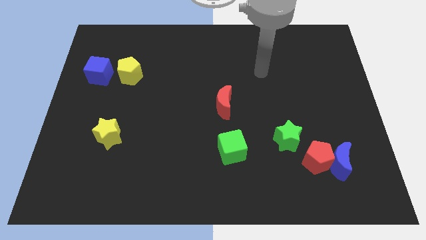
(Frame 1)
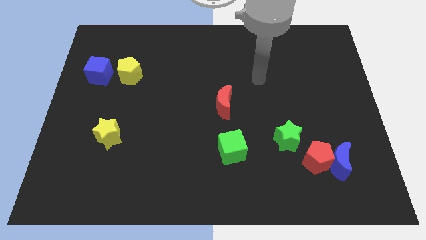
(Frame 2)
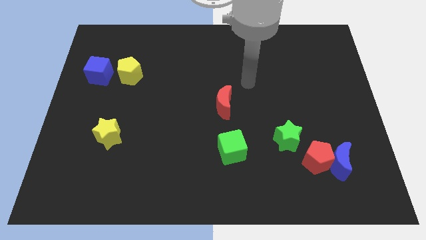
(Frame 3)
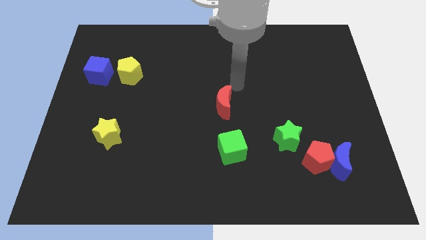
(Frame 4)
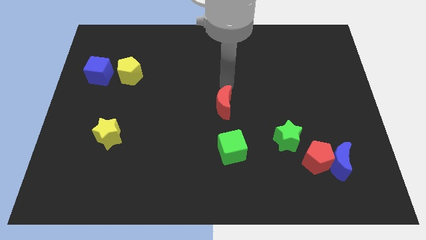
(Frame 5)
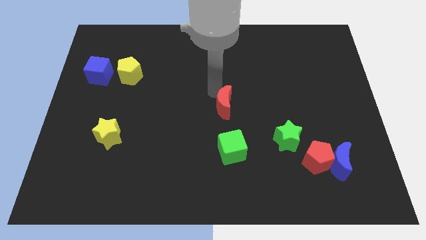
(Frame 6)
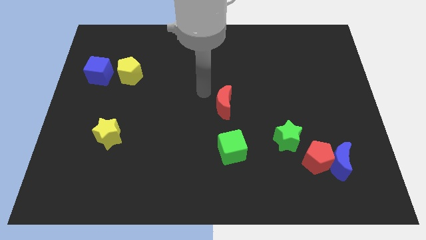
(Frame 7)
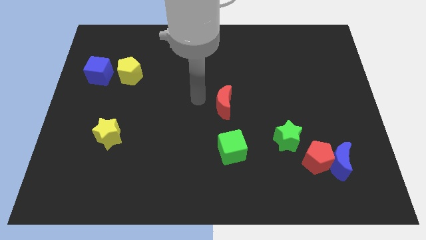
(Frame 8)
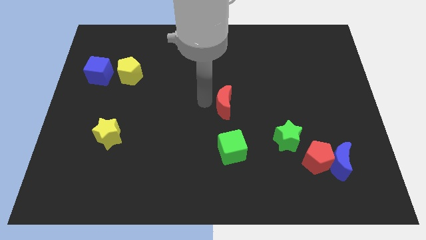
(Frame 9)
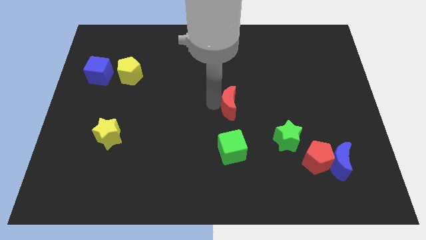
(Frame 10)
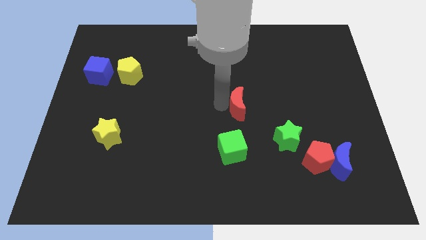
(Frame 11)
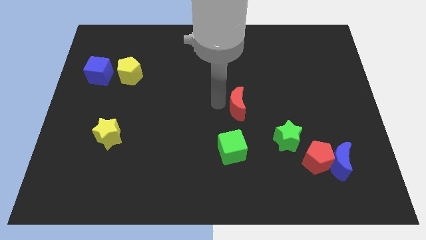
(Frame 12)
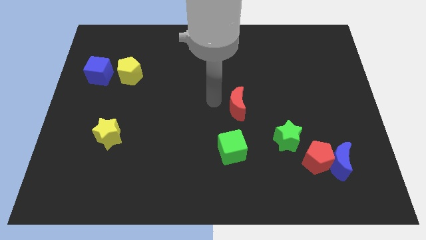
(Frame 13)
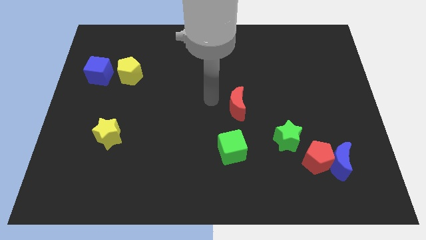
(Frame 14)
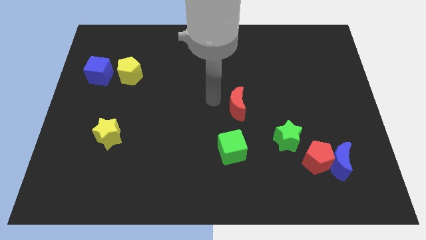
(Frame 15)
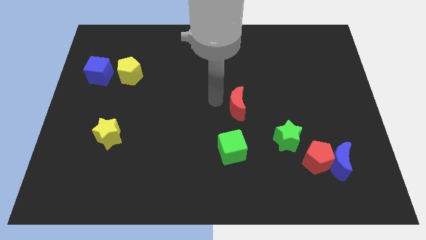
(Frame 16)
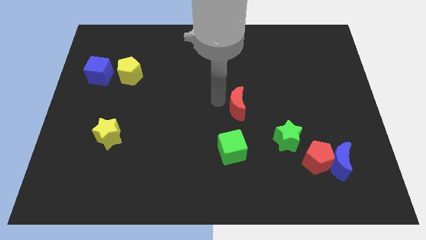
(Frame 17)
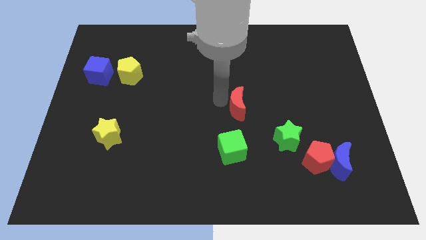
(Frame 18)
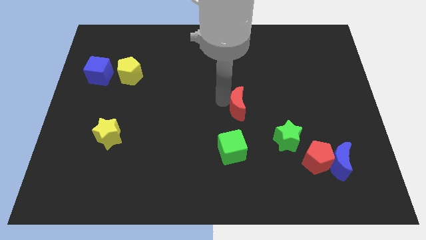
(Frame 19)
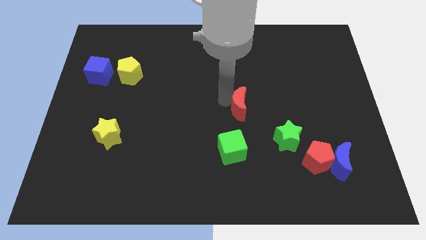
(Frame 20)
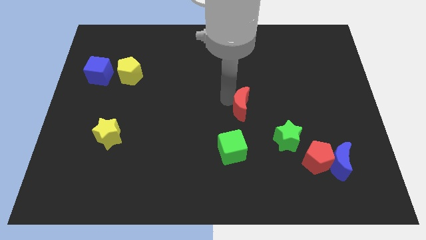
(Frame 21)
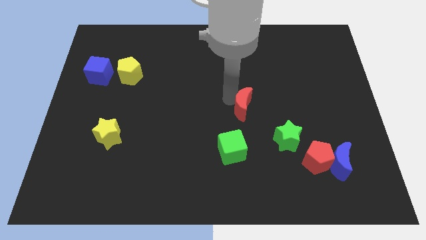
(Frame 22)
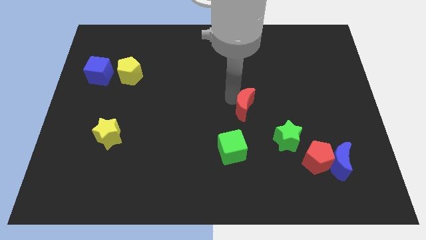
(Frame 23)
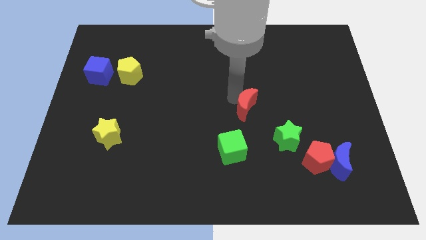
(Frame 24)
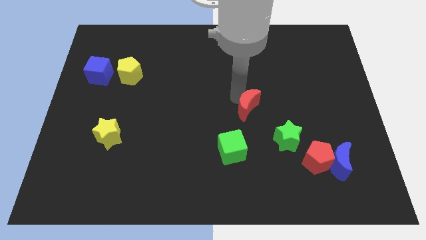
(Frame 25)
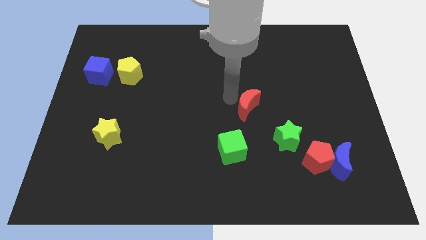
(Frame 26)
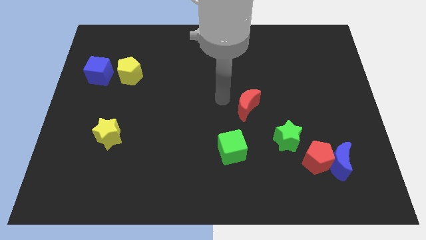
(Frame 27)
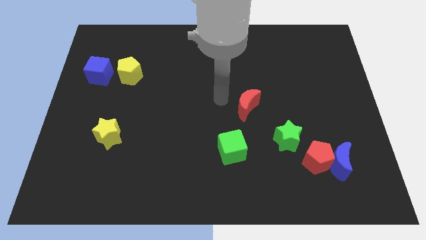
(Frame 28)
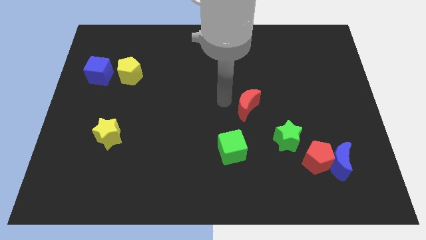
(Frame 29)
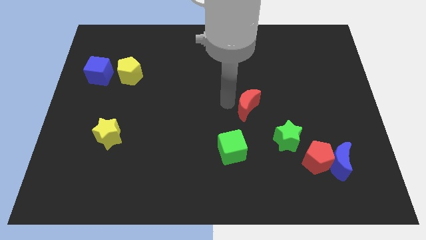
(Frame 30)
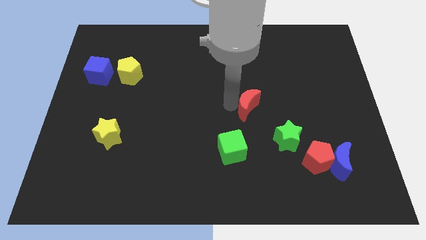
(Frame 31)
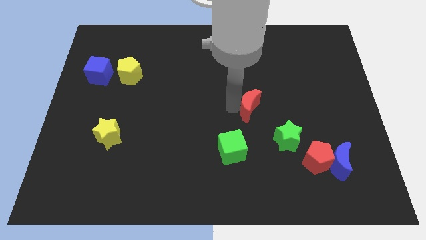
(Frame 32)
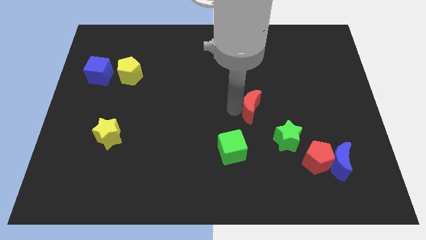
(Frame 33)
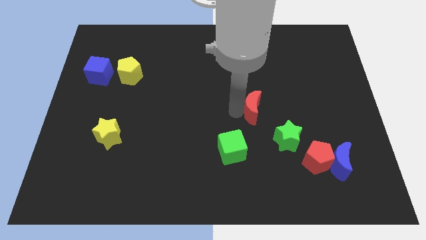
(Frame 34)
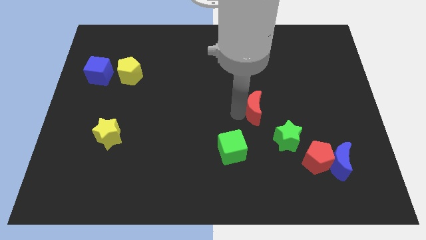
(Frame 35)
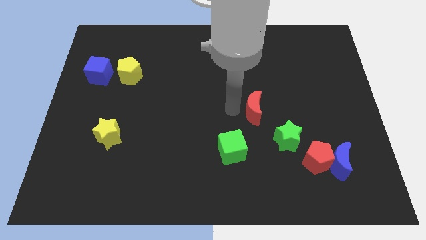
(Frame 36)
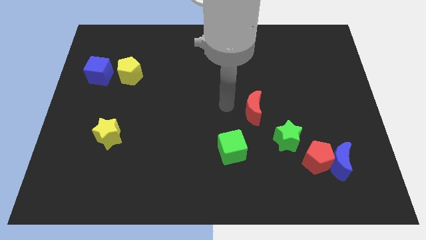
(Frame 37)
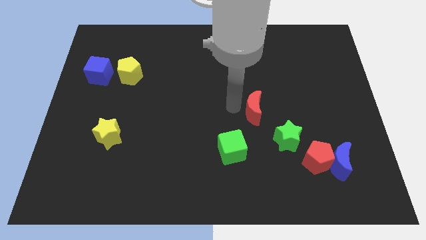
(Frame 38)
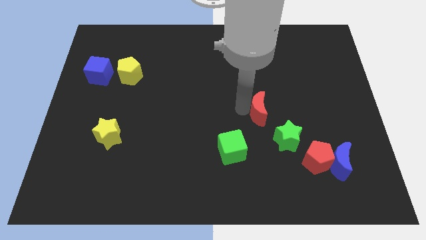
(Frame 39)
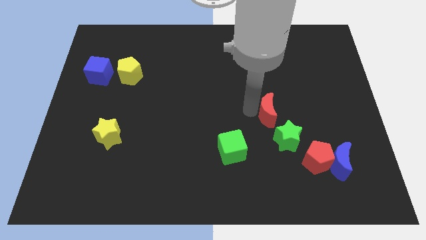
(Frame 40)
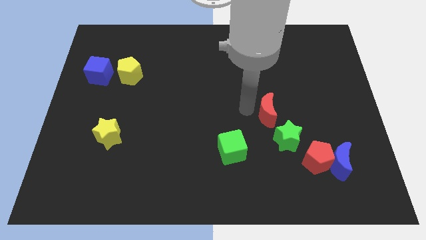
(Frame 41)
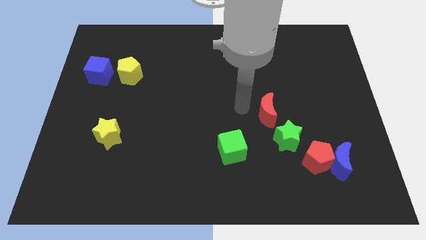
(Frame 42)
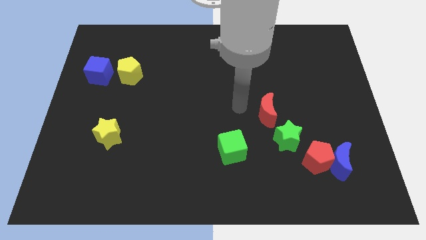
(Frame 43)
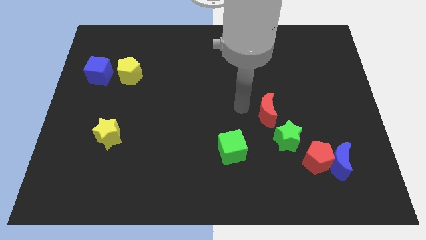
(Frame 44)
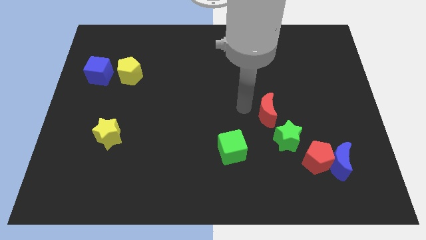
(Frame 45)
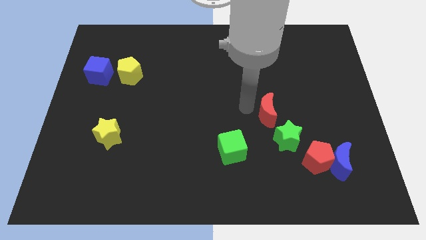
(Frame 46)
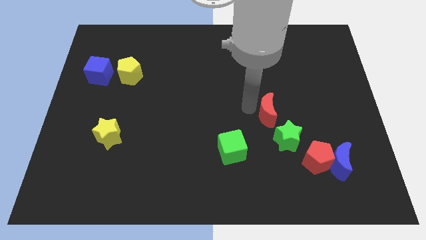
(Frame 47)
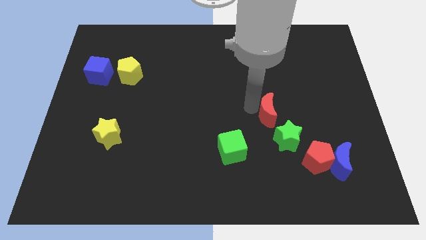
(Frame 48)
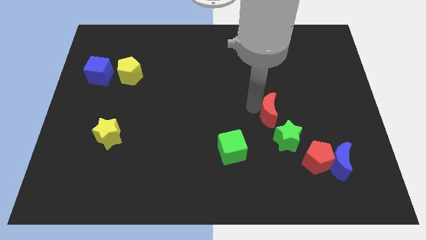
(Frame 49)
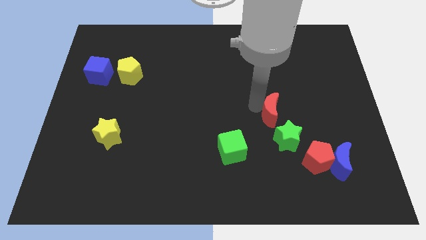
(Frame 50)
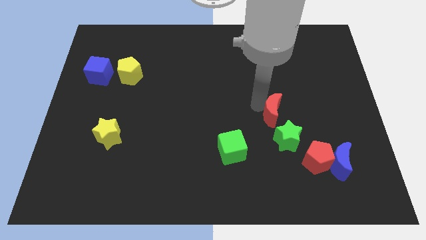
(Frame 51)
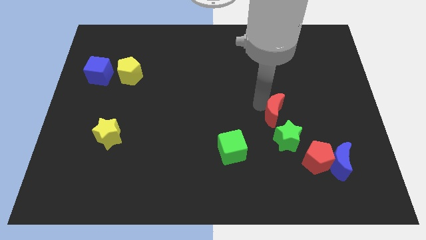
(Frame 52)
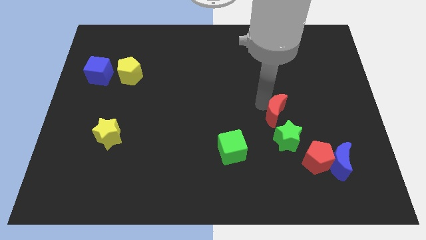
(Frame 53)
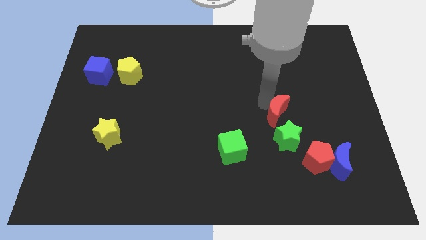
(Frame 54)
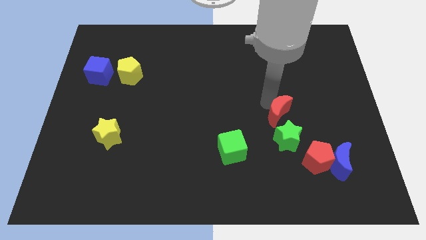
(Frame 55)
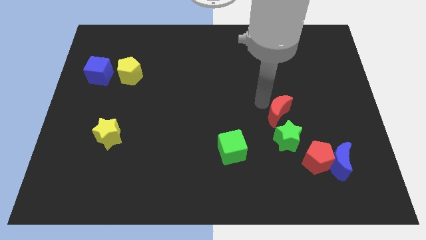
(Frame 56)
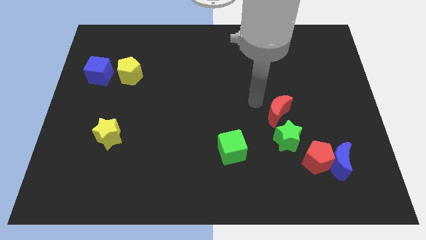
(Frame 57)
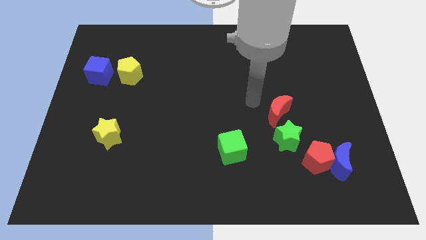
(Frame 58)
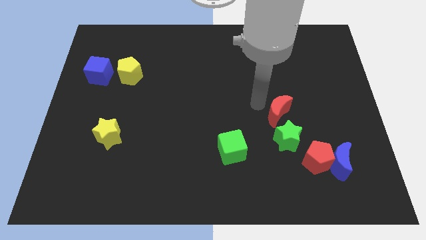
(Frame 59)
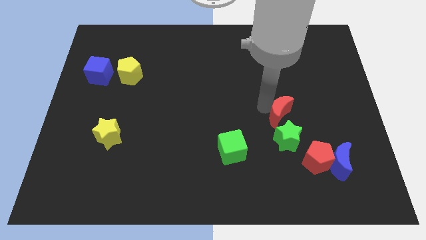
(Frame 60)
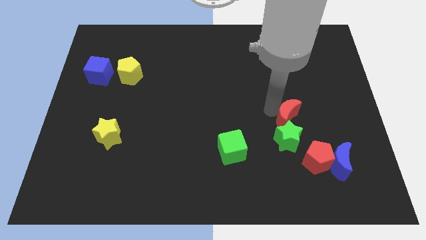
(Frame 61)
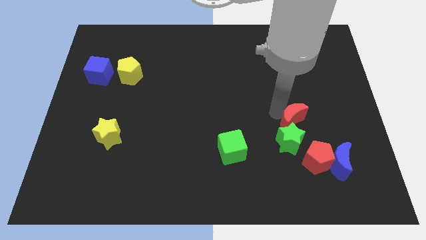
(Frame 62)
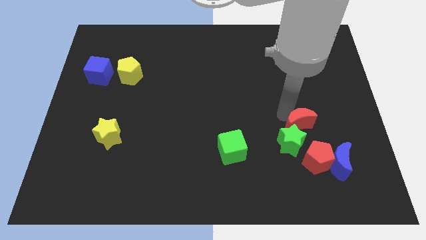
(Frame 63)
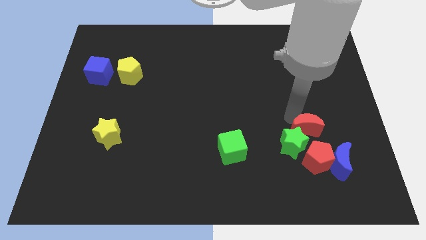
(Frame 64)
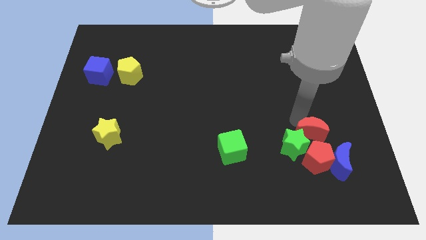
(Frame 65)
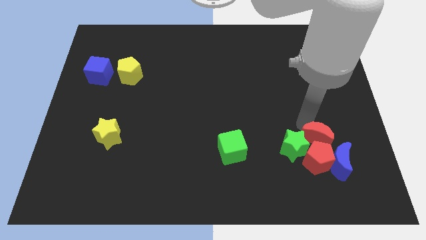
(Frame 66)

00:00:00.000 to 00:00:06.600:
push the red moon to the red pentagon

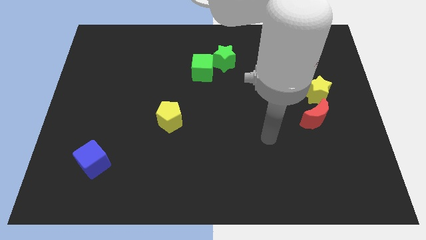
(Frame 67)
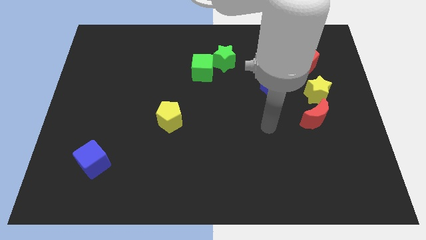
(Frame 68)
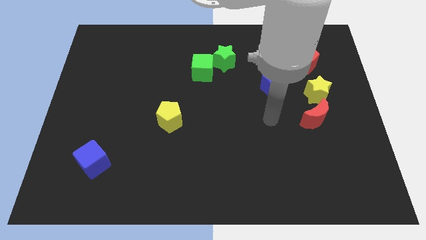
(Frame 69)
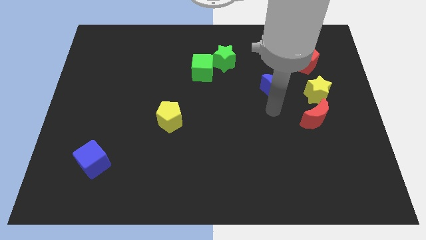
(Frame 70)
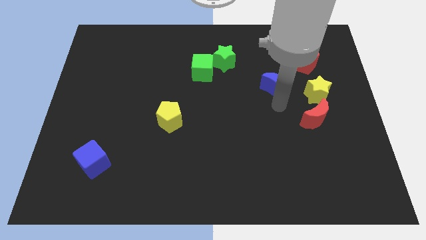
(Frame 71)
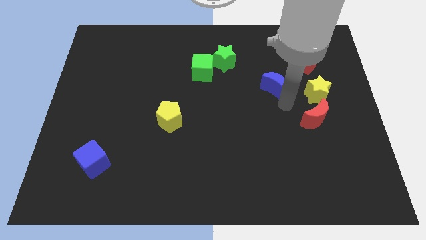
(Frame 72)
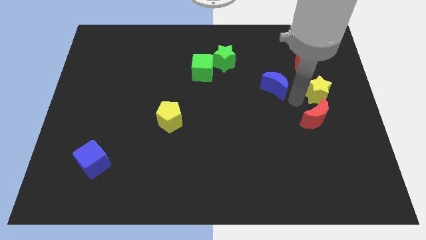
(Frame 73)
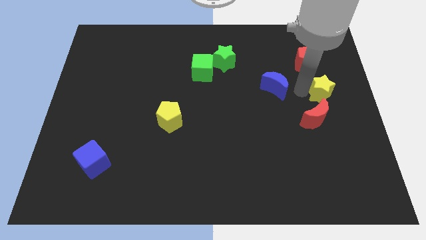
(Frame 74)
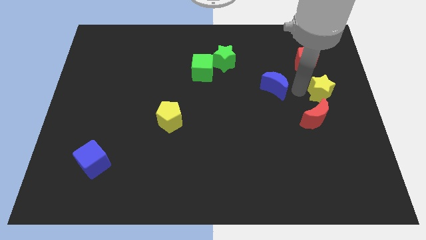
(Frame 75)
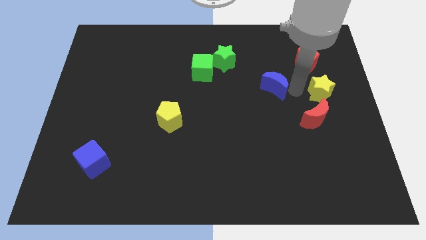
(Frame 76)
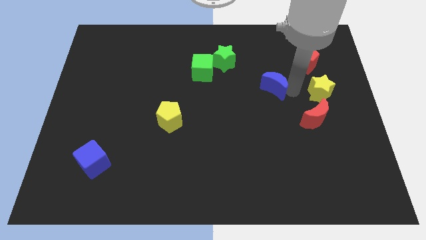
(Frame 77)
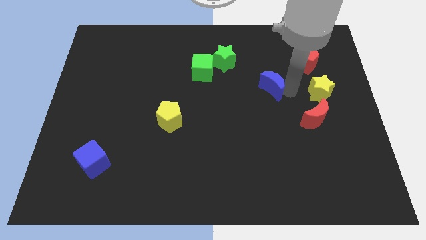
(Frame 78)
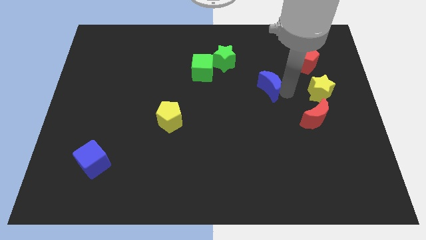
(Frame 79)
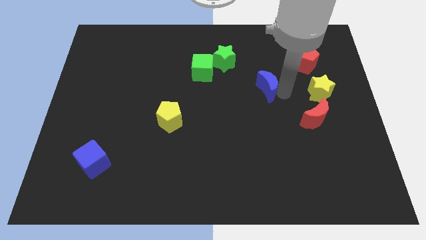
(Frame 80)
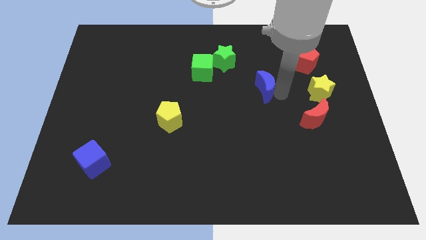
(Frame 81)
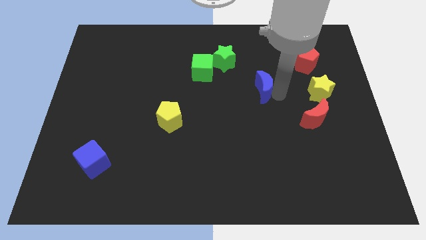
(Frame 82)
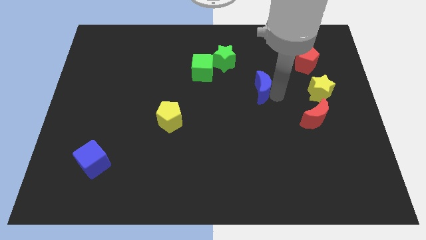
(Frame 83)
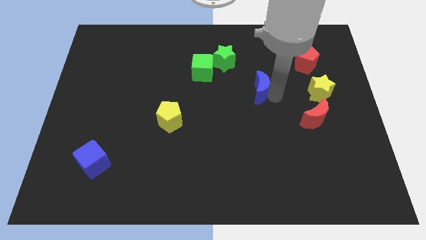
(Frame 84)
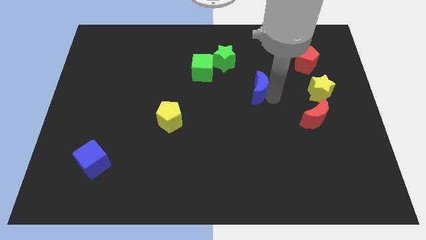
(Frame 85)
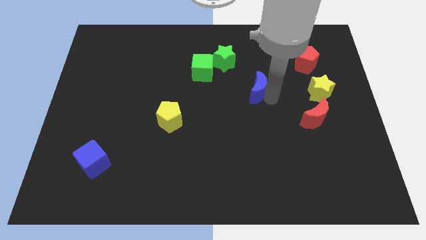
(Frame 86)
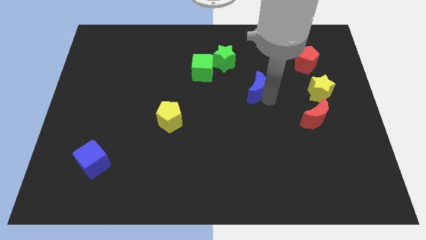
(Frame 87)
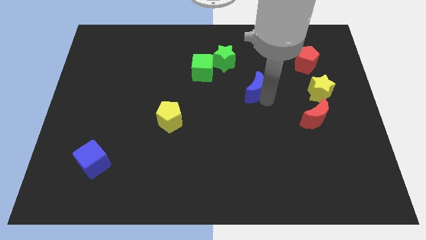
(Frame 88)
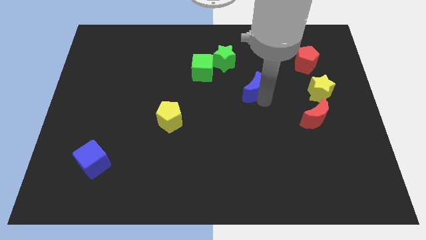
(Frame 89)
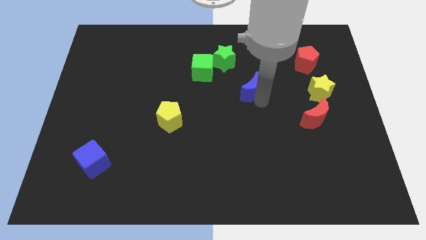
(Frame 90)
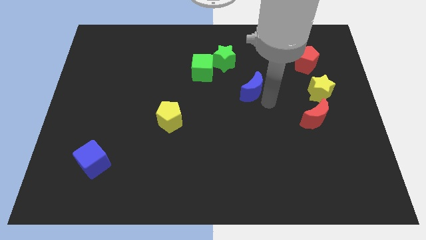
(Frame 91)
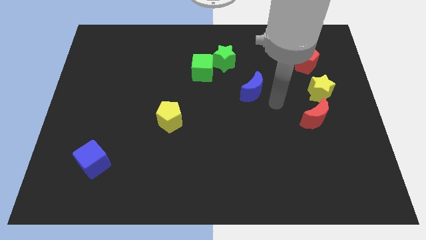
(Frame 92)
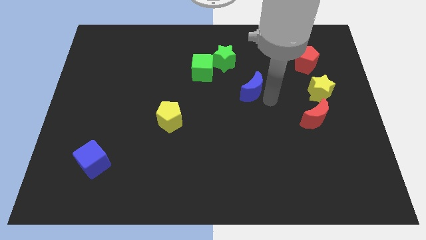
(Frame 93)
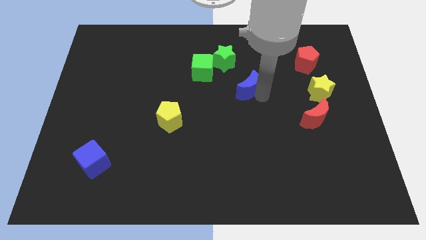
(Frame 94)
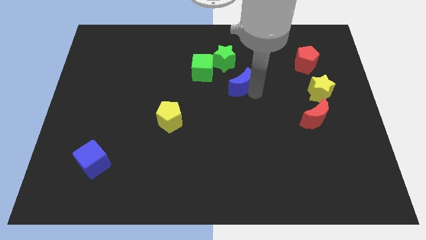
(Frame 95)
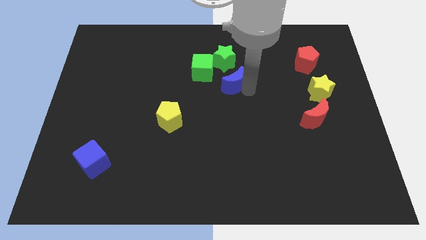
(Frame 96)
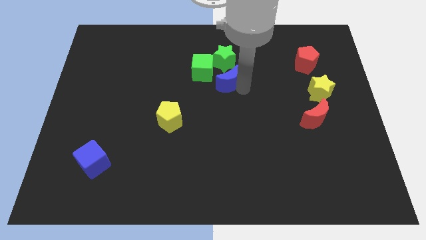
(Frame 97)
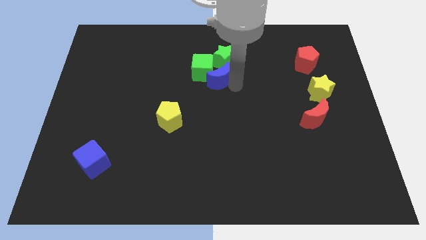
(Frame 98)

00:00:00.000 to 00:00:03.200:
slide the blue moon towards the green cube
